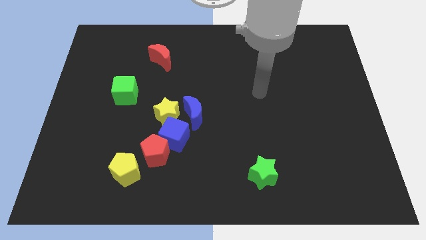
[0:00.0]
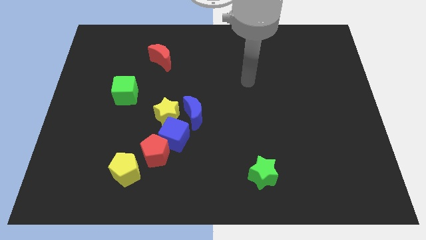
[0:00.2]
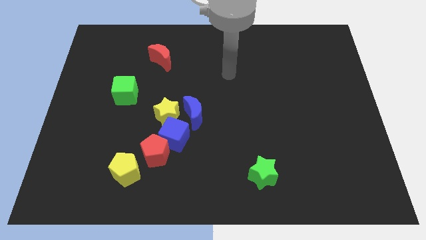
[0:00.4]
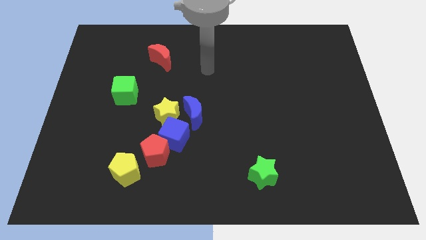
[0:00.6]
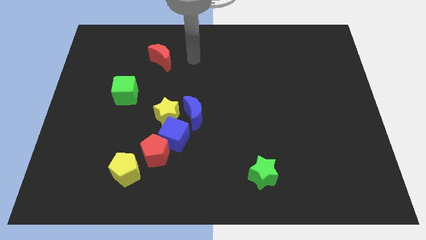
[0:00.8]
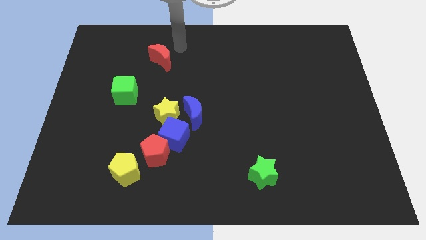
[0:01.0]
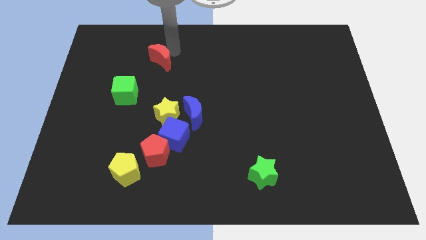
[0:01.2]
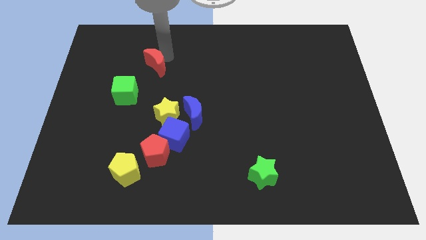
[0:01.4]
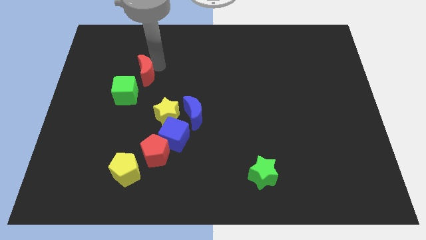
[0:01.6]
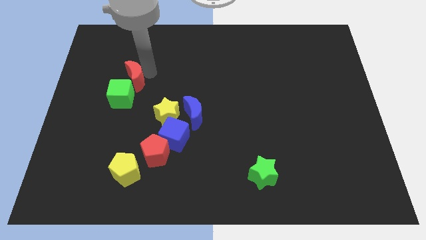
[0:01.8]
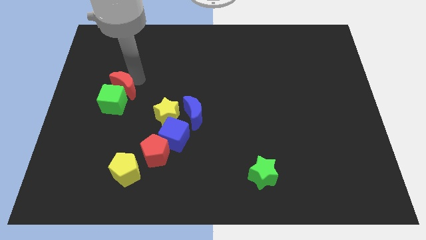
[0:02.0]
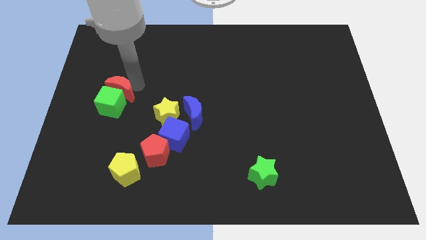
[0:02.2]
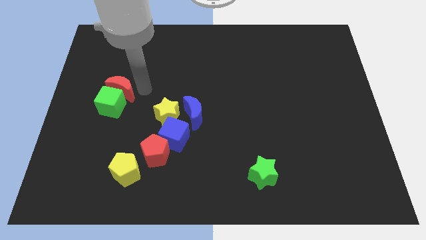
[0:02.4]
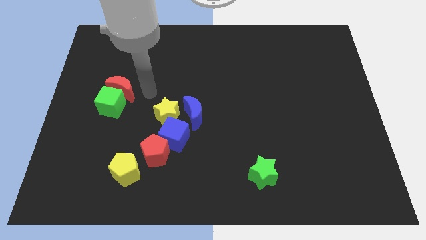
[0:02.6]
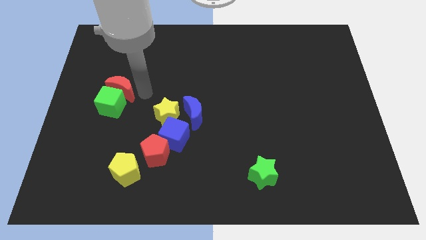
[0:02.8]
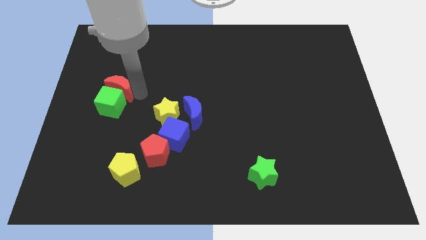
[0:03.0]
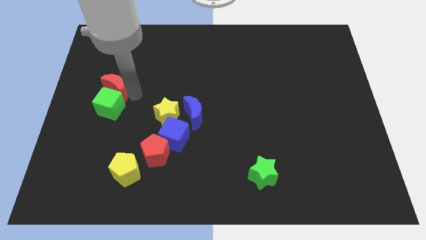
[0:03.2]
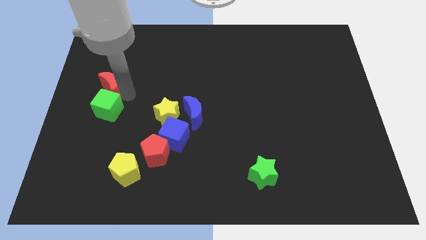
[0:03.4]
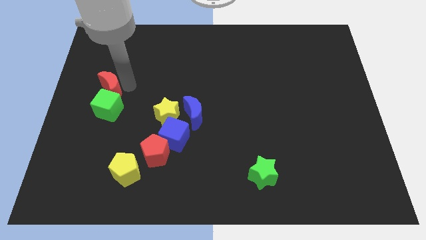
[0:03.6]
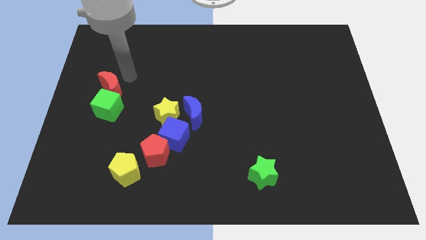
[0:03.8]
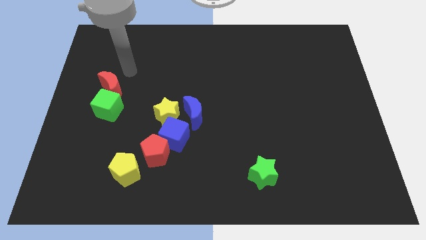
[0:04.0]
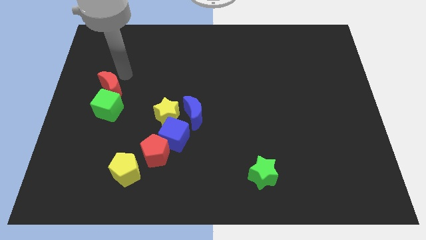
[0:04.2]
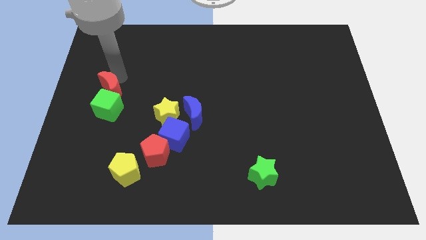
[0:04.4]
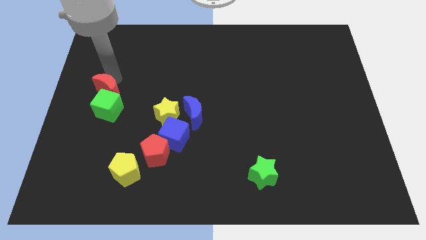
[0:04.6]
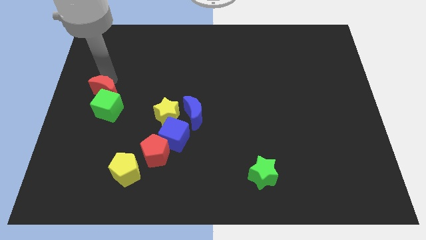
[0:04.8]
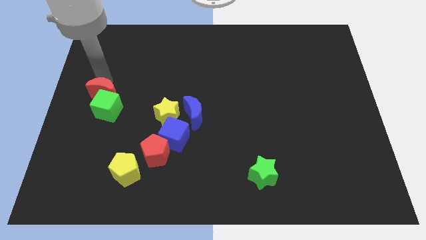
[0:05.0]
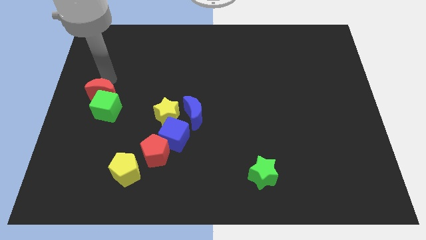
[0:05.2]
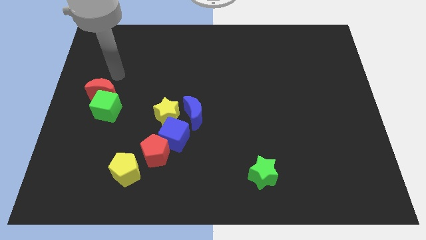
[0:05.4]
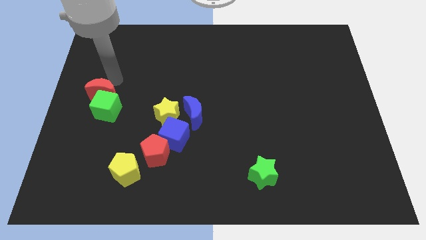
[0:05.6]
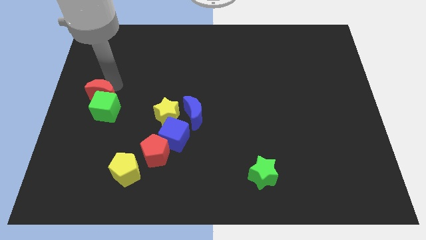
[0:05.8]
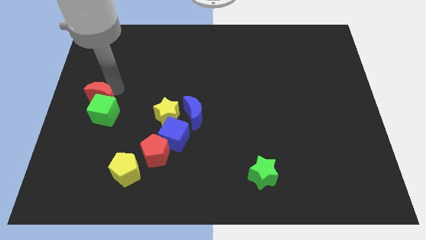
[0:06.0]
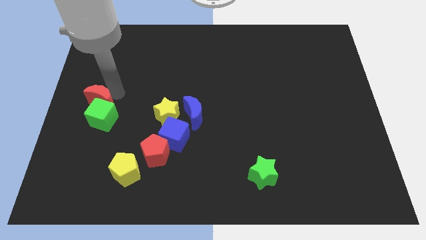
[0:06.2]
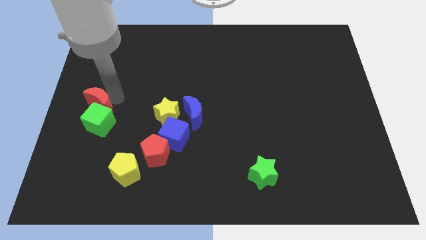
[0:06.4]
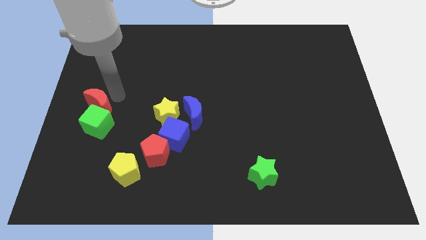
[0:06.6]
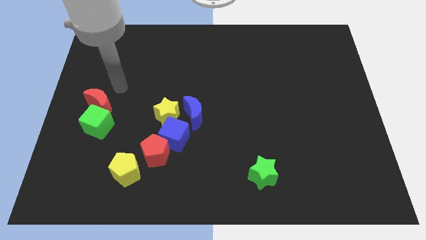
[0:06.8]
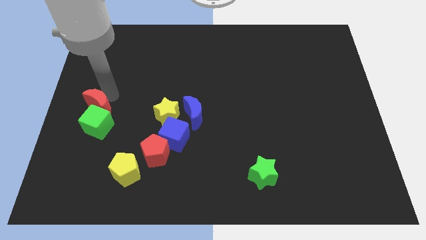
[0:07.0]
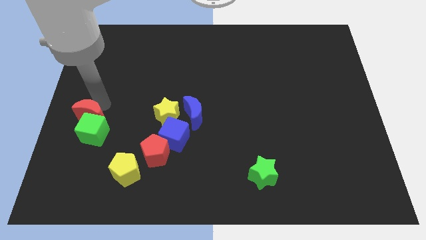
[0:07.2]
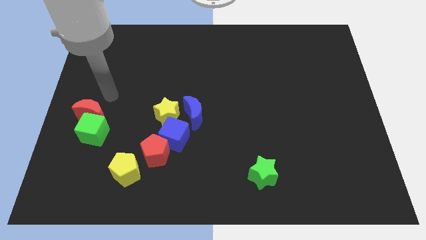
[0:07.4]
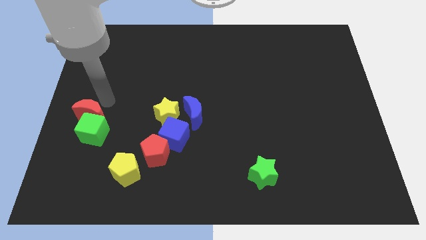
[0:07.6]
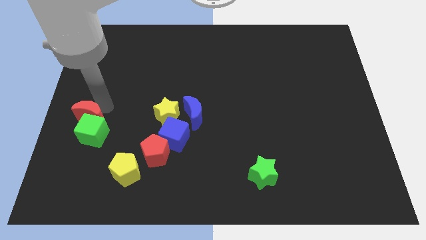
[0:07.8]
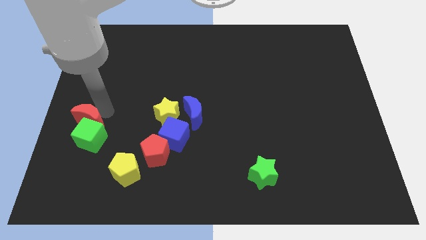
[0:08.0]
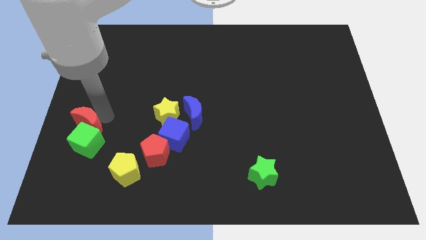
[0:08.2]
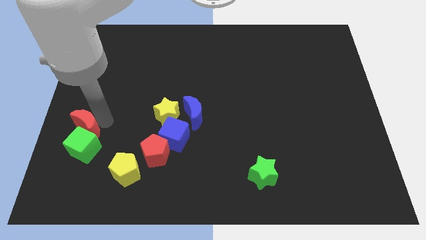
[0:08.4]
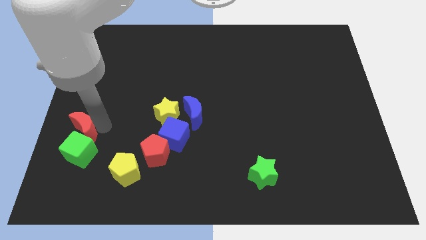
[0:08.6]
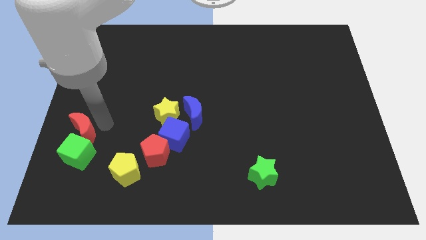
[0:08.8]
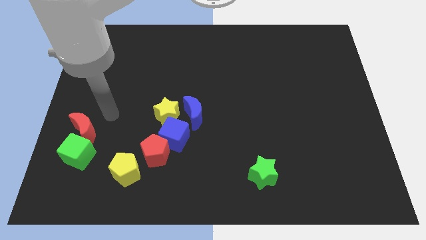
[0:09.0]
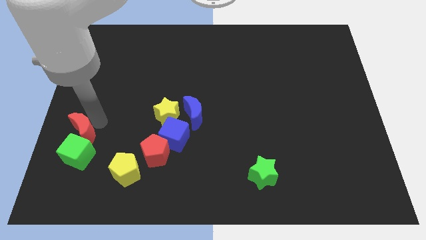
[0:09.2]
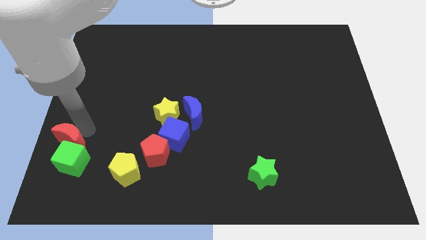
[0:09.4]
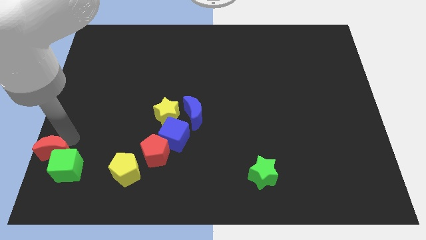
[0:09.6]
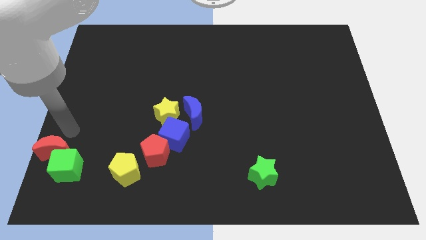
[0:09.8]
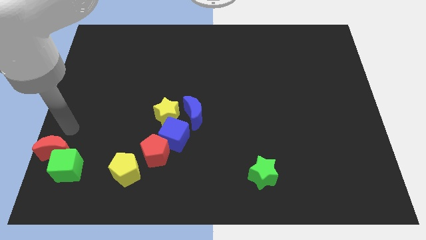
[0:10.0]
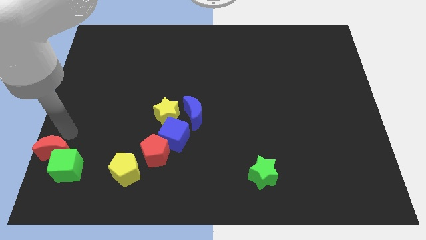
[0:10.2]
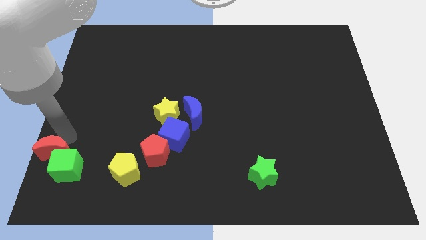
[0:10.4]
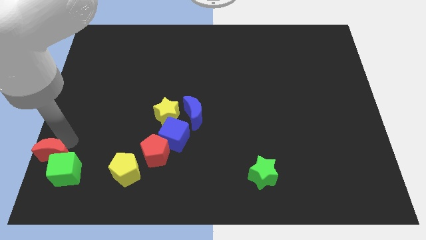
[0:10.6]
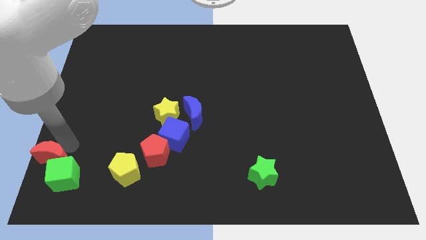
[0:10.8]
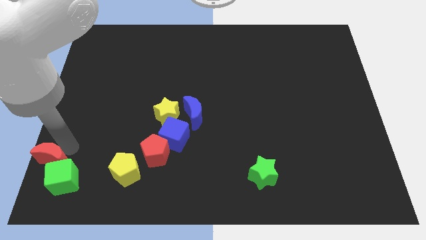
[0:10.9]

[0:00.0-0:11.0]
slide the red moon to the bottom left

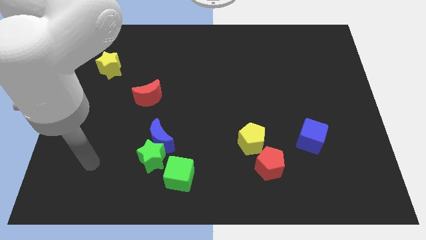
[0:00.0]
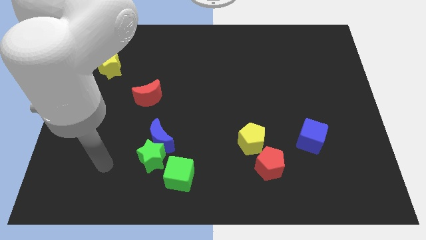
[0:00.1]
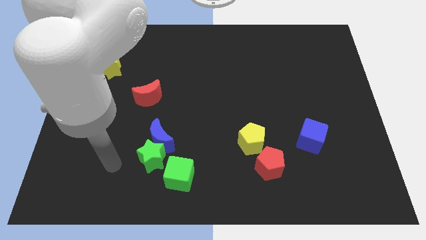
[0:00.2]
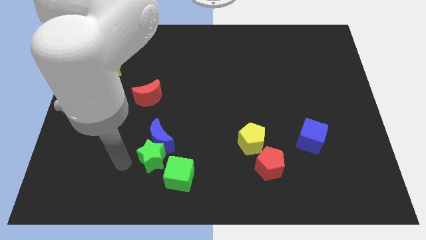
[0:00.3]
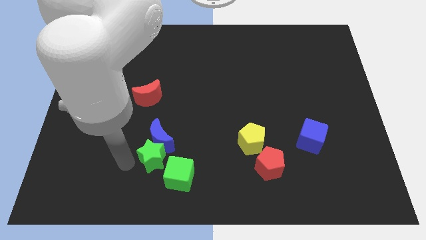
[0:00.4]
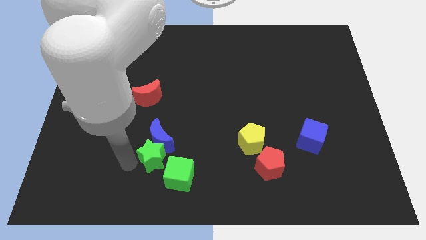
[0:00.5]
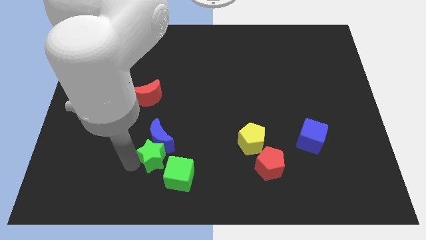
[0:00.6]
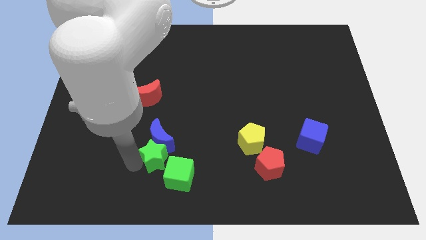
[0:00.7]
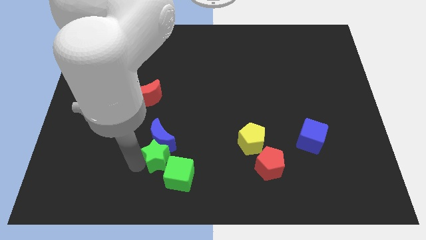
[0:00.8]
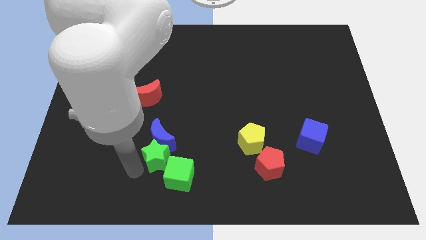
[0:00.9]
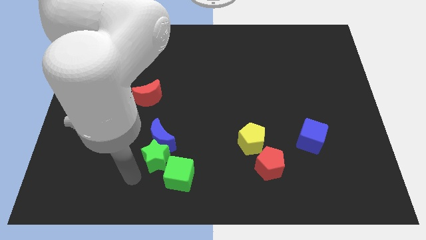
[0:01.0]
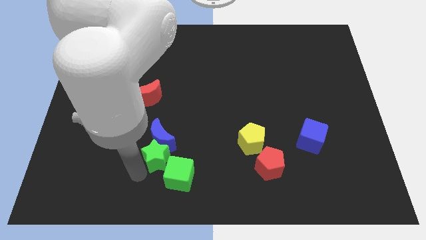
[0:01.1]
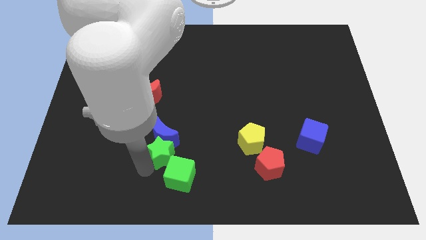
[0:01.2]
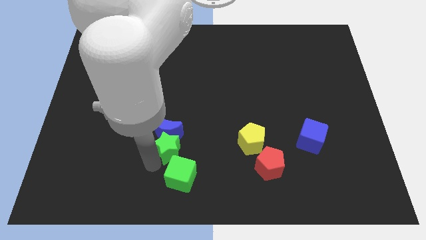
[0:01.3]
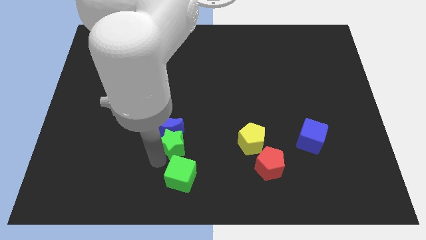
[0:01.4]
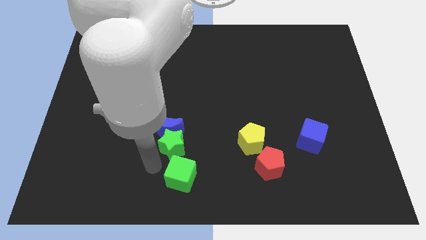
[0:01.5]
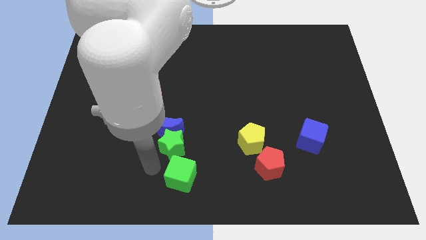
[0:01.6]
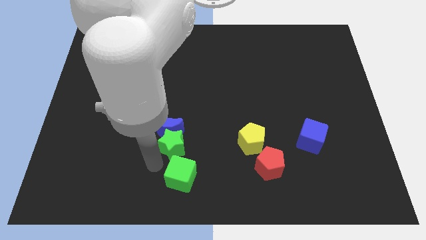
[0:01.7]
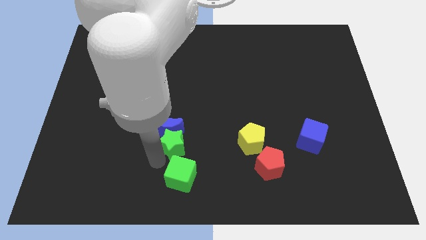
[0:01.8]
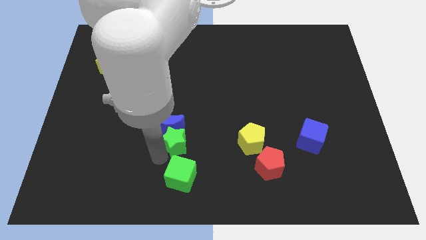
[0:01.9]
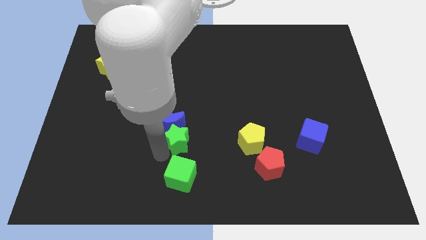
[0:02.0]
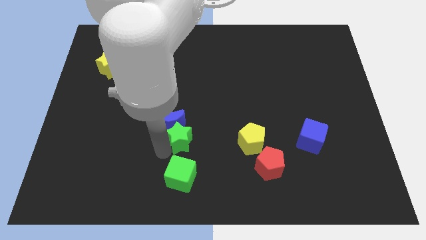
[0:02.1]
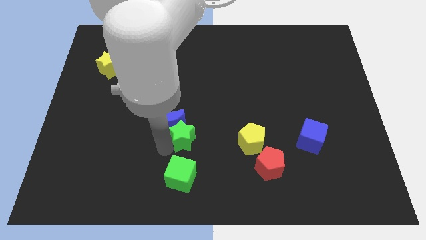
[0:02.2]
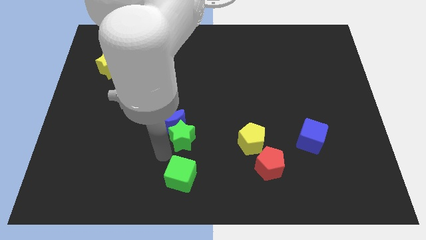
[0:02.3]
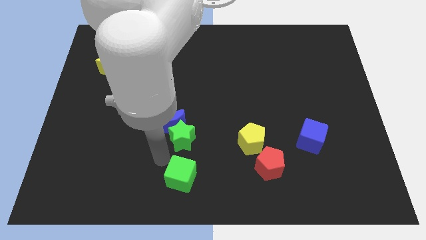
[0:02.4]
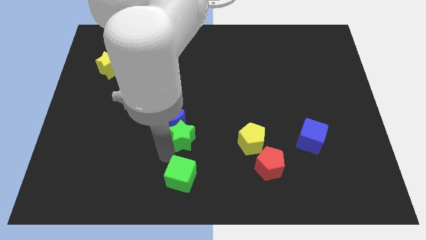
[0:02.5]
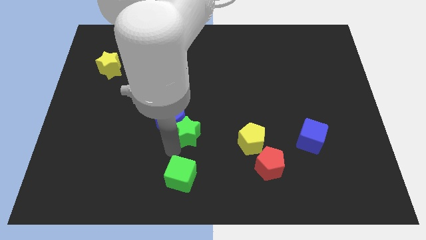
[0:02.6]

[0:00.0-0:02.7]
slide the green star to the middle
